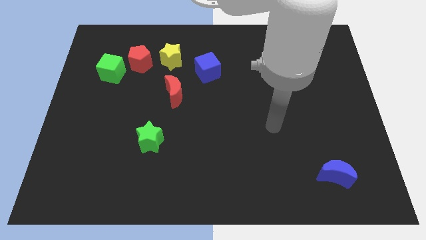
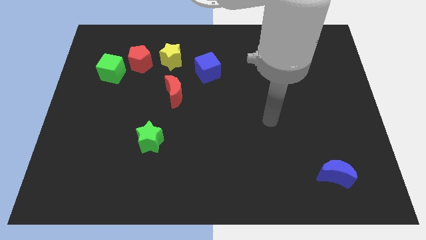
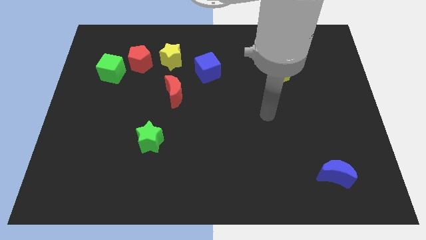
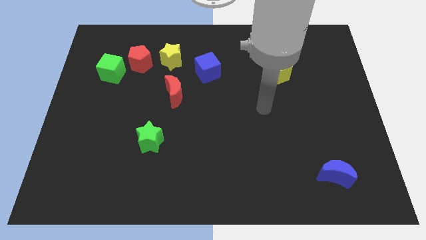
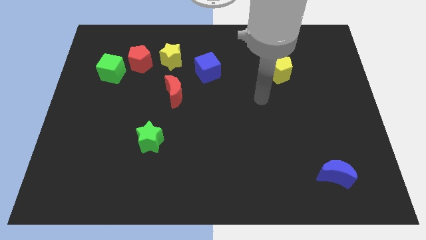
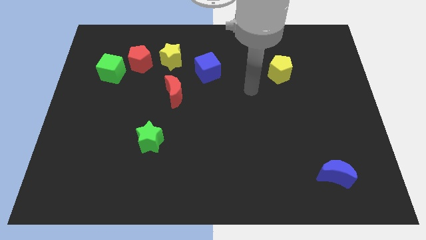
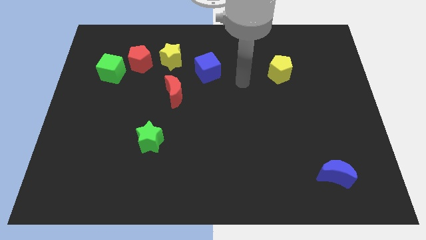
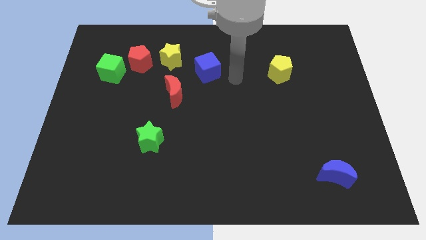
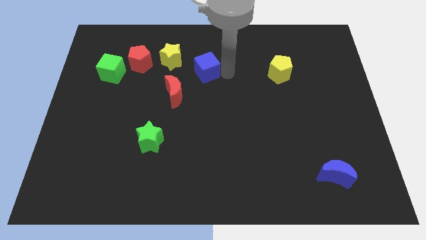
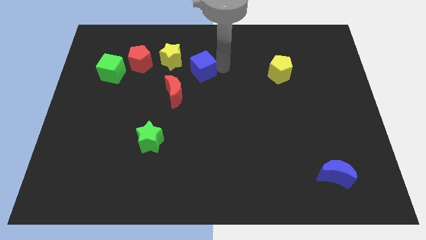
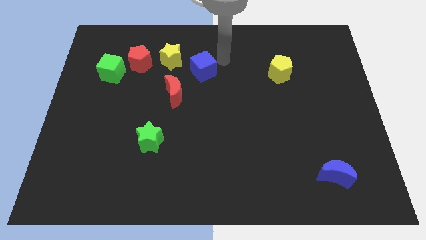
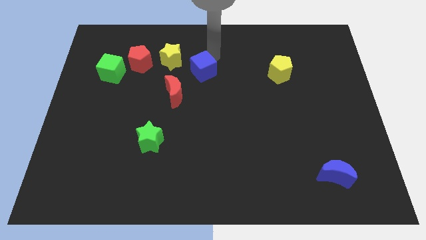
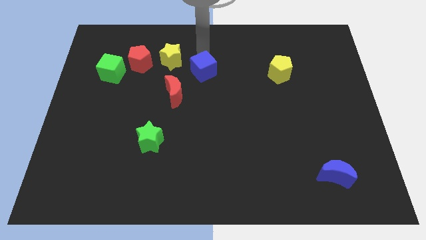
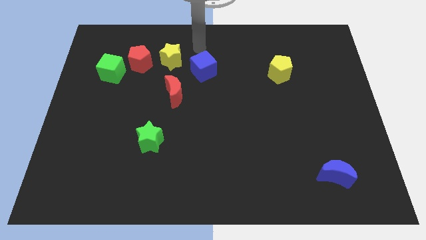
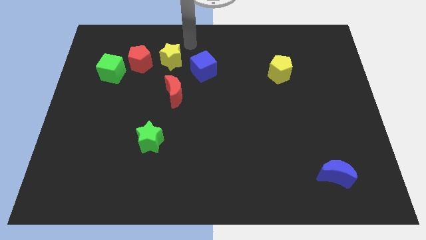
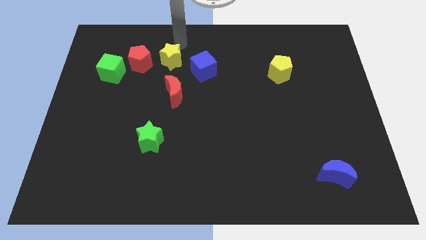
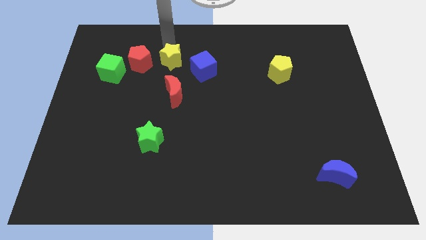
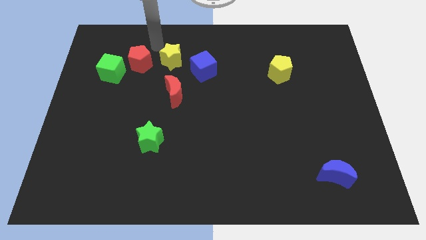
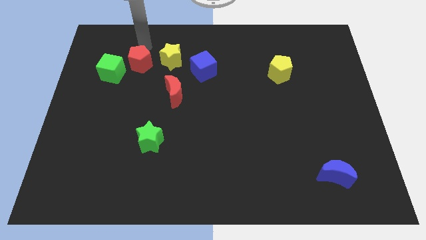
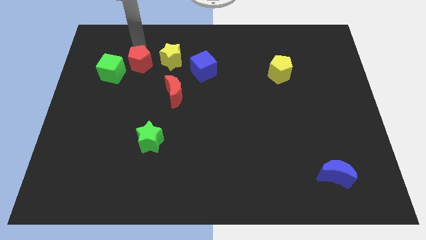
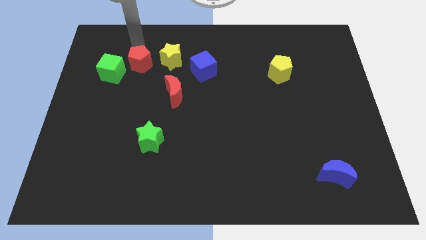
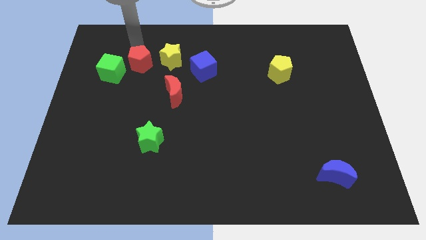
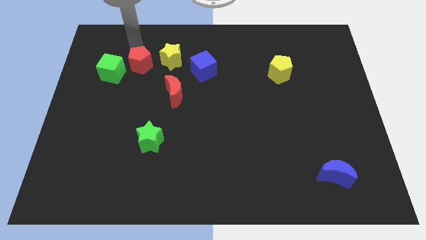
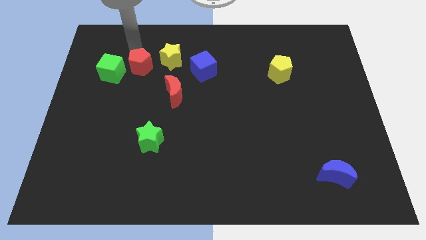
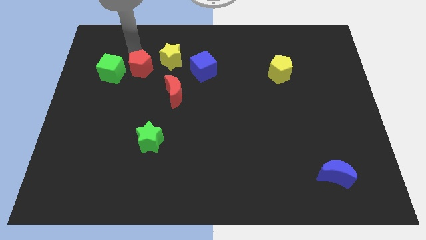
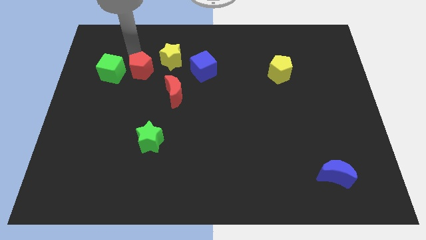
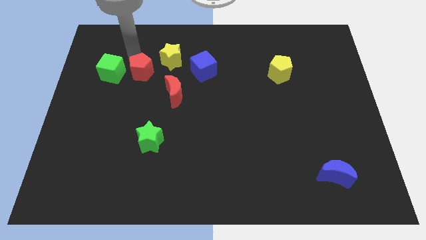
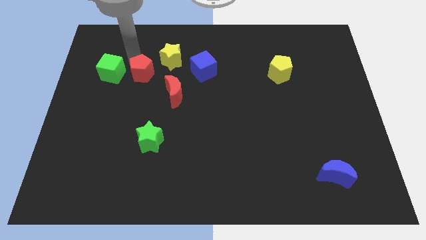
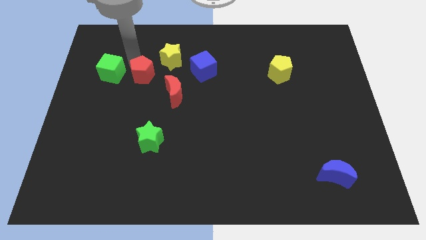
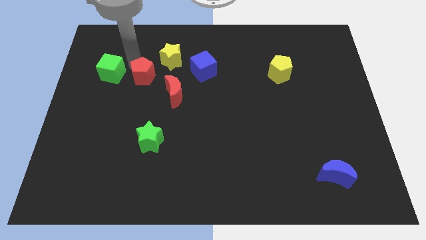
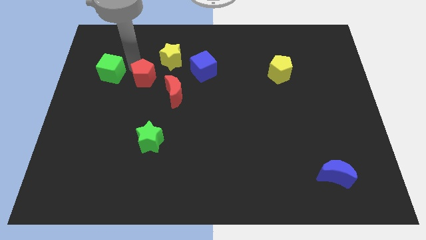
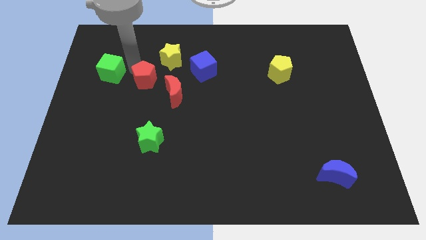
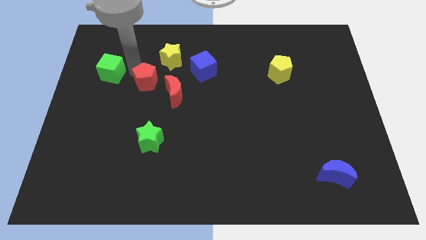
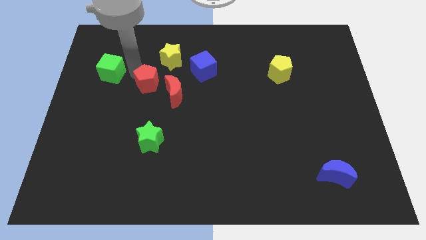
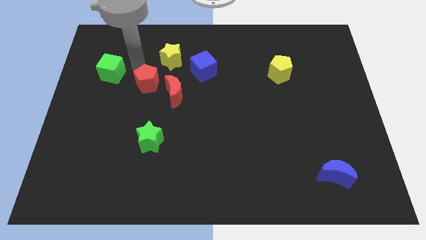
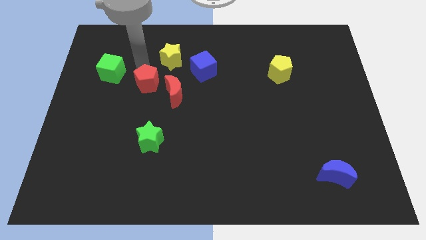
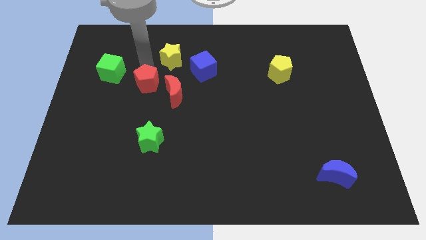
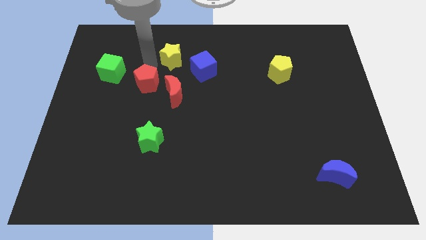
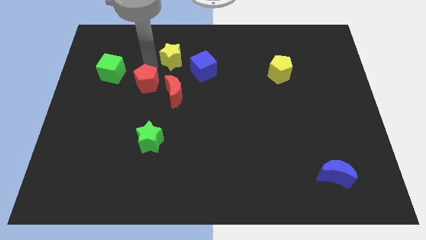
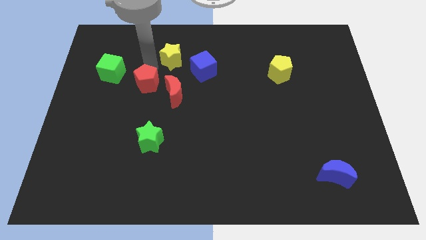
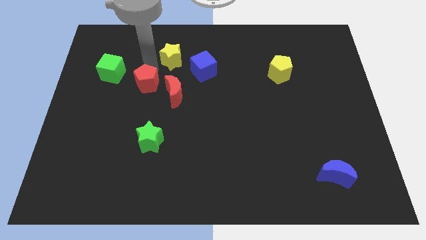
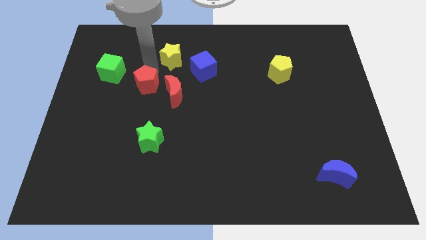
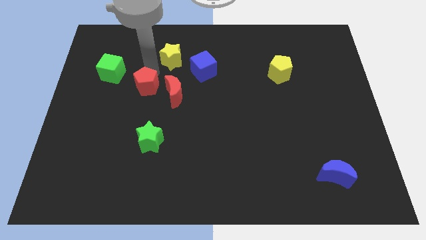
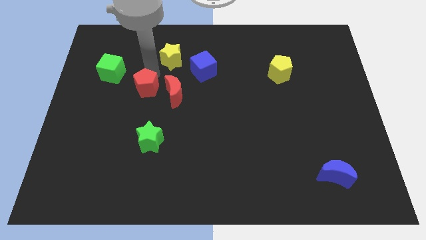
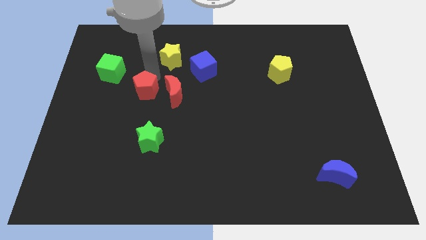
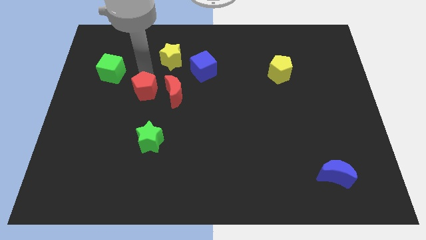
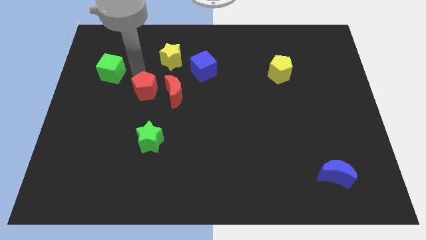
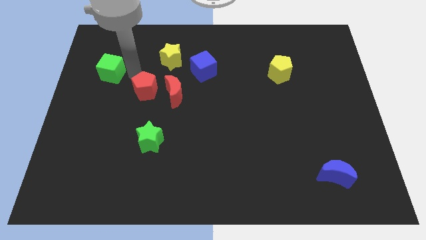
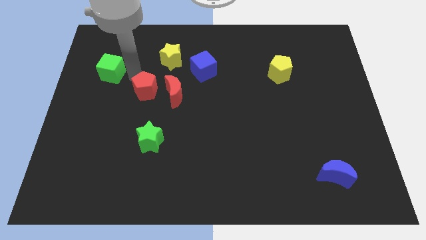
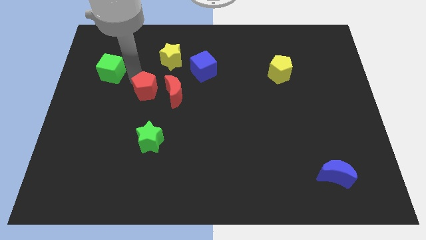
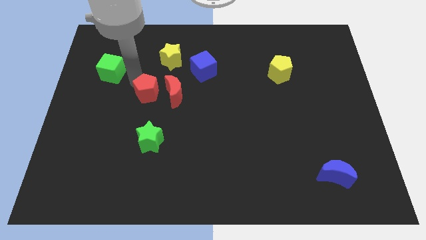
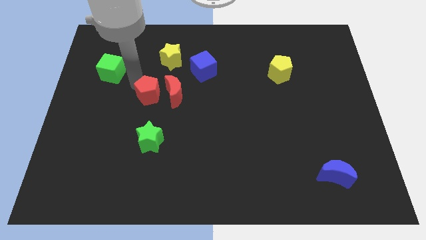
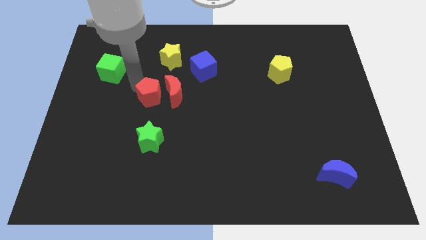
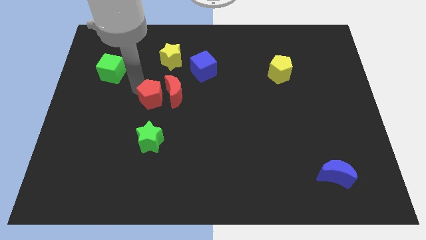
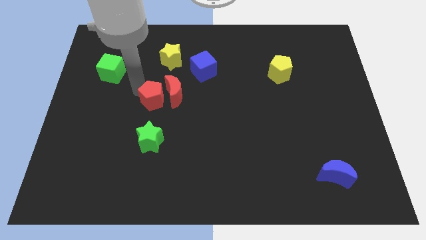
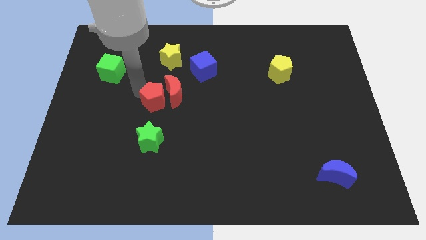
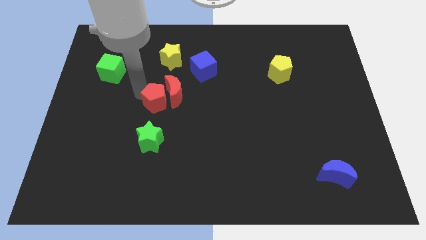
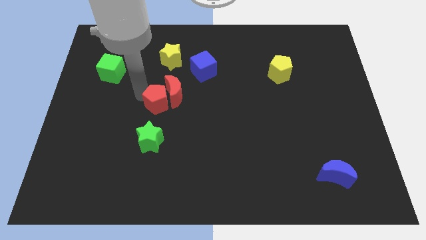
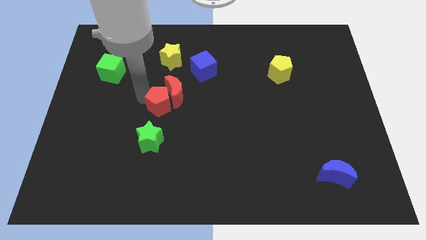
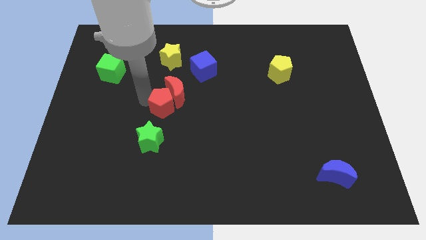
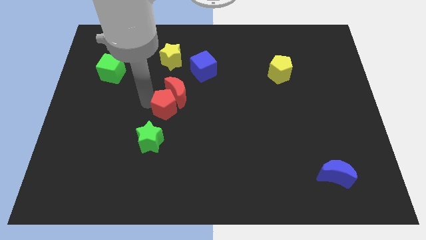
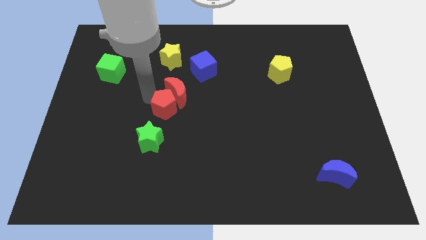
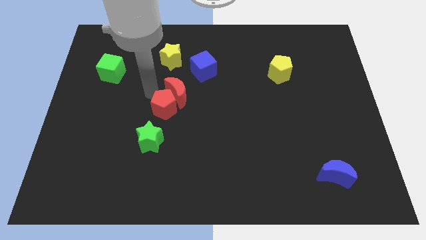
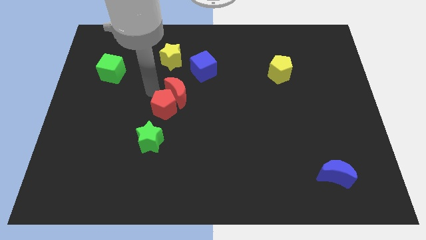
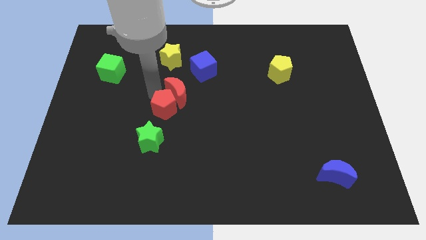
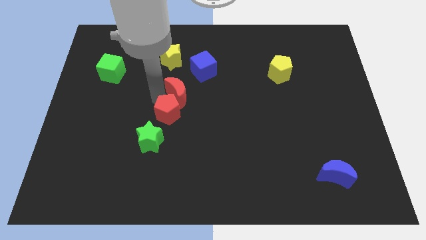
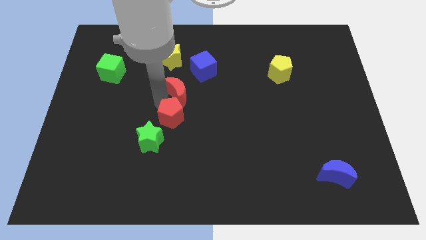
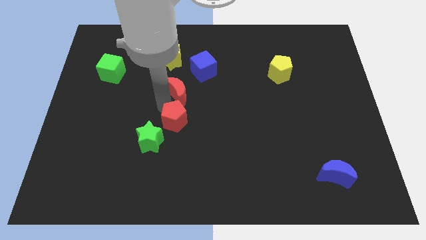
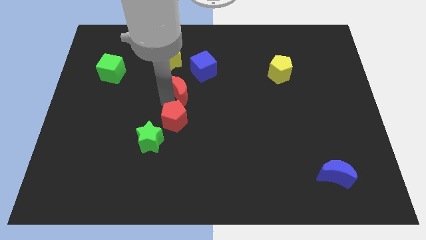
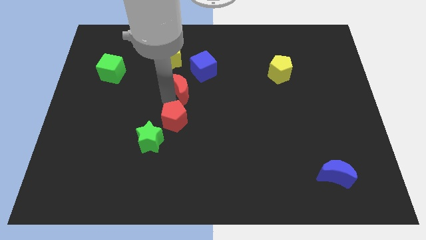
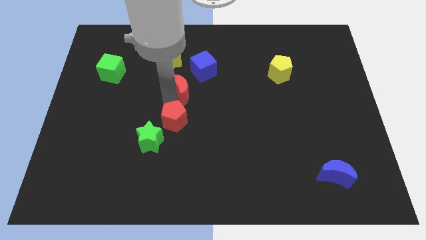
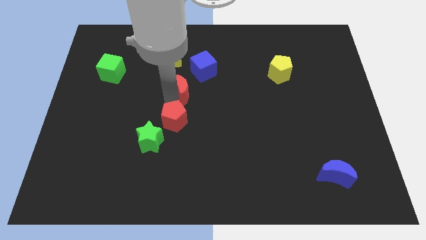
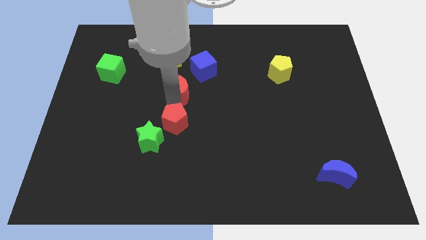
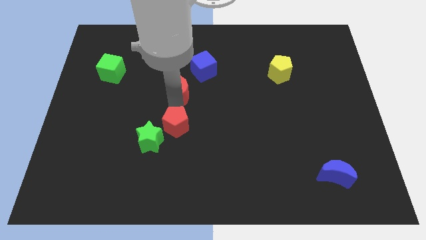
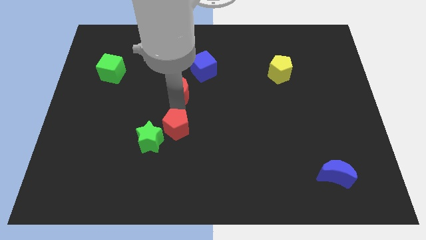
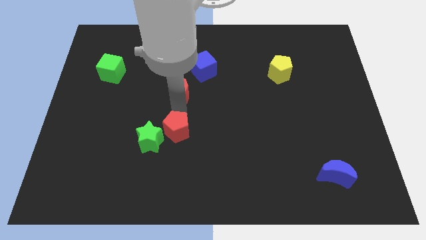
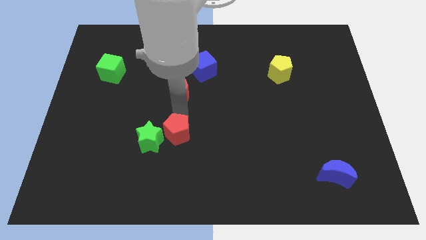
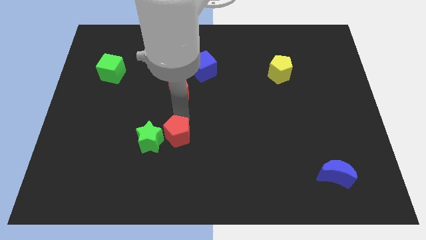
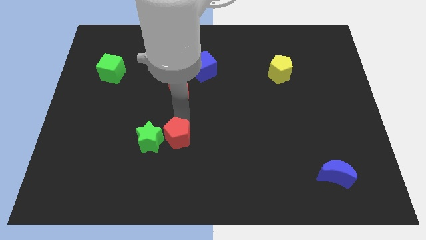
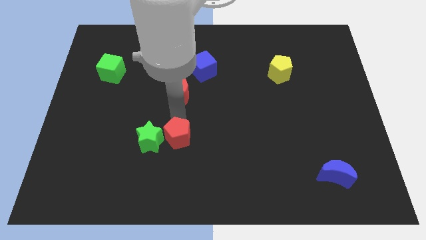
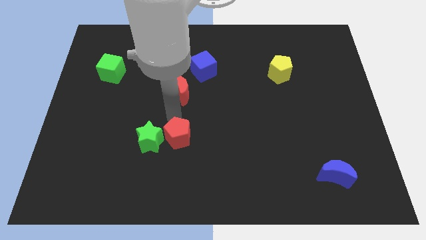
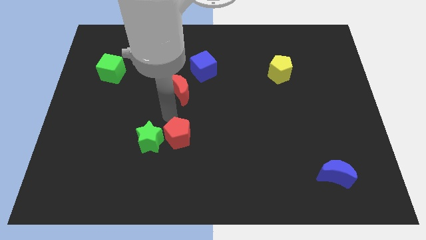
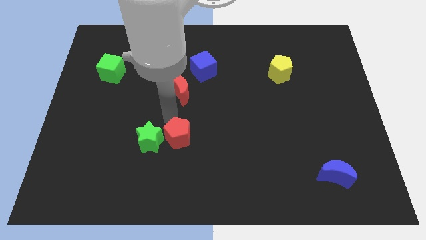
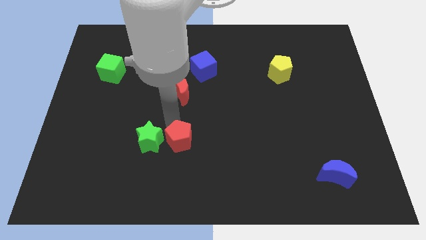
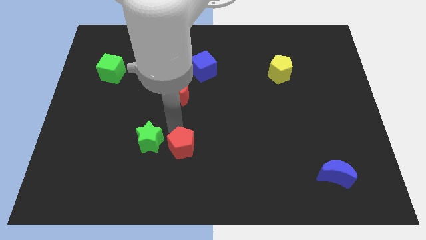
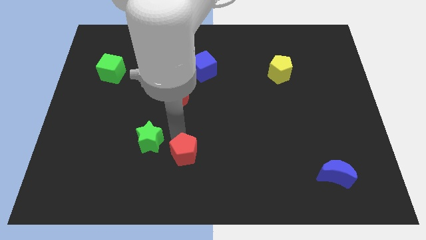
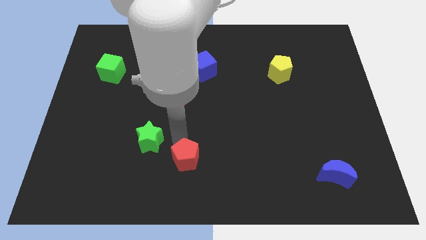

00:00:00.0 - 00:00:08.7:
slide the red pentagon to the bottom
